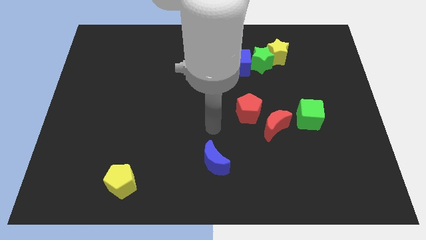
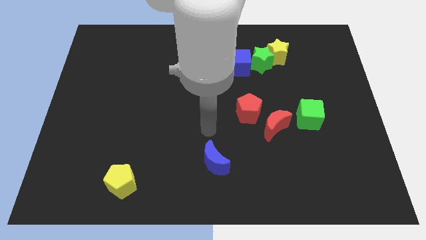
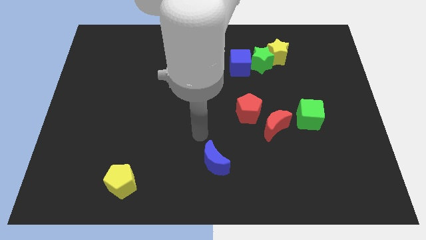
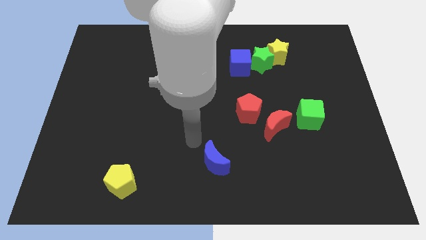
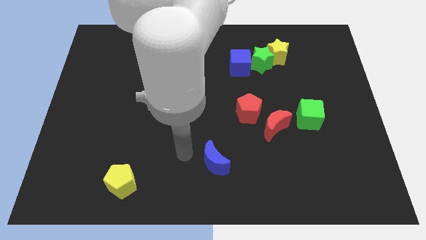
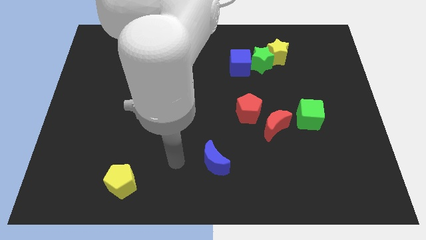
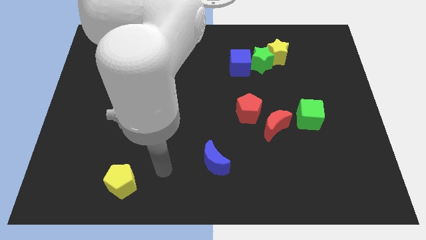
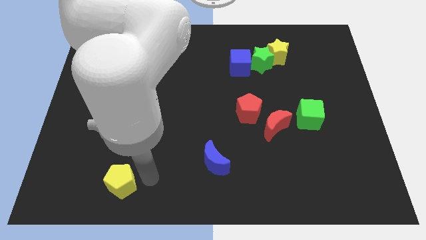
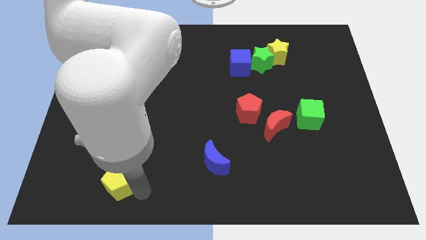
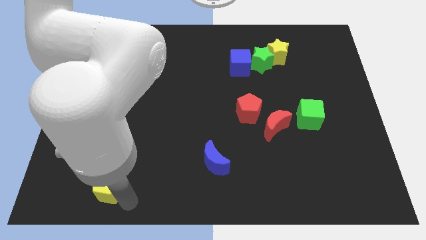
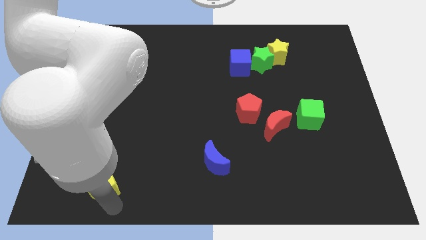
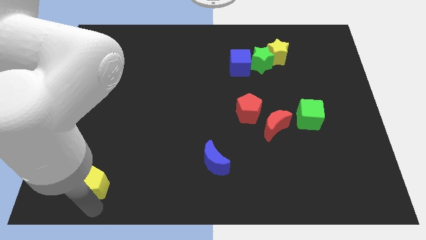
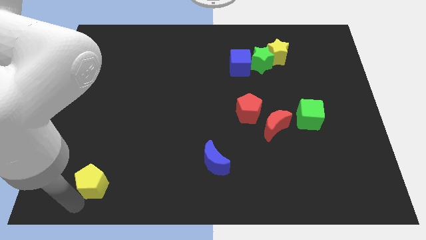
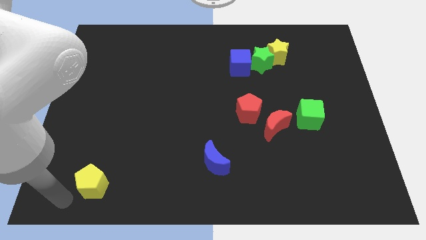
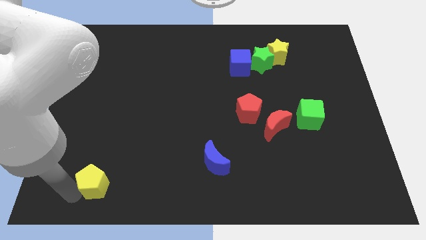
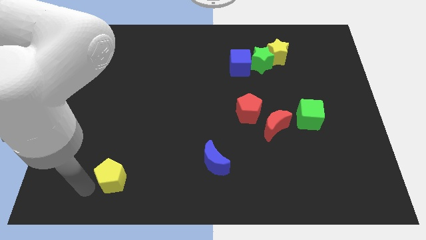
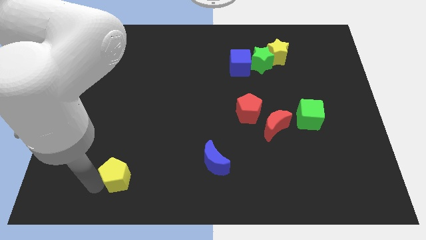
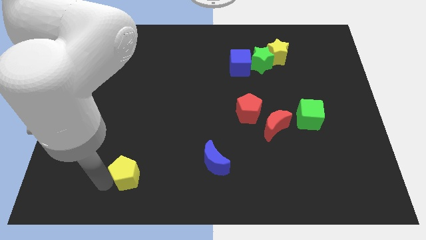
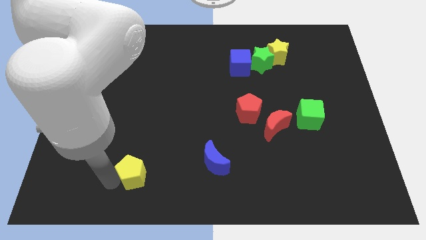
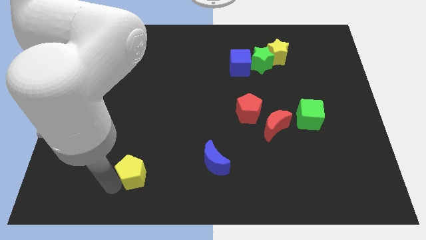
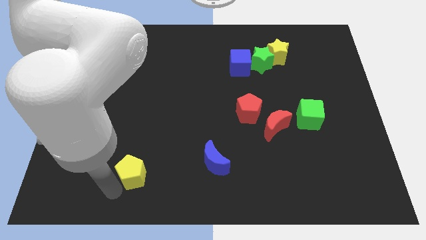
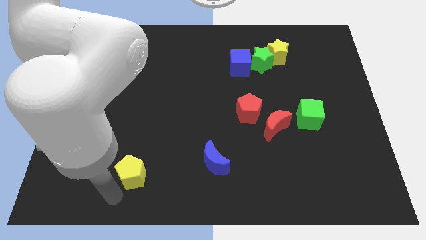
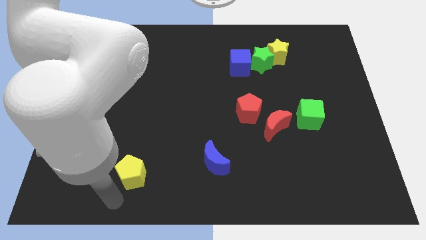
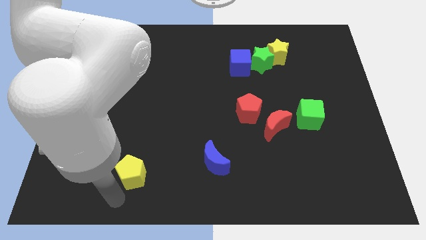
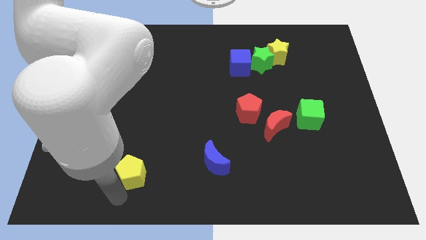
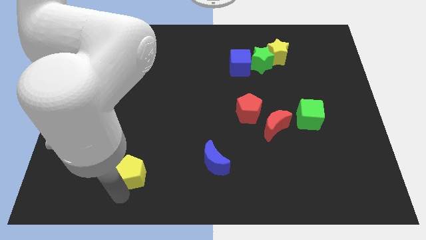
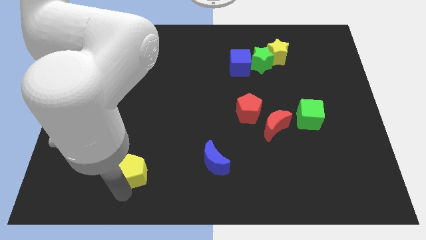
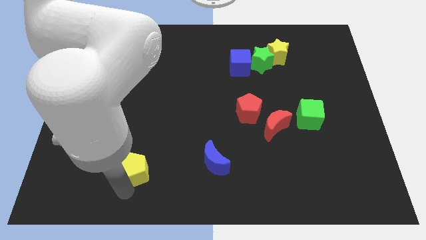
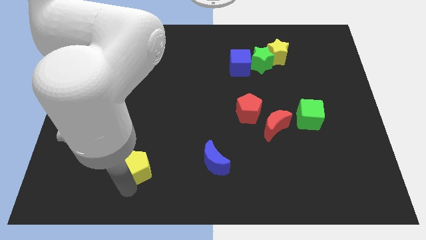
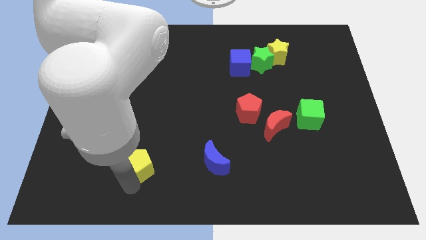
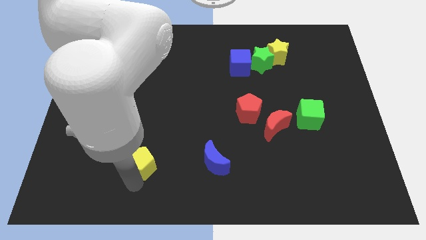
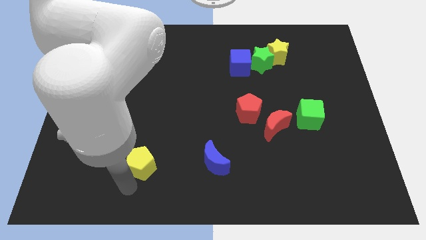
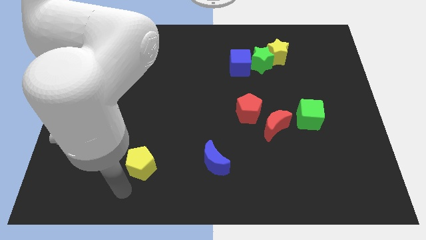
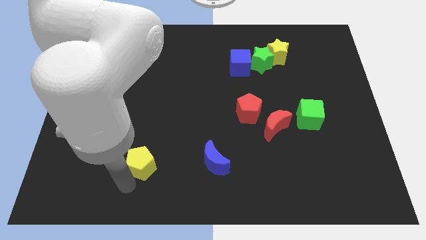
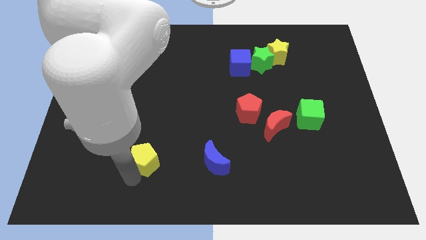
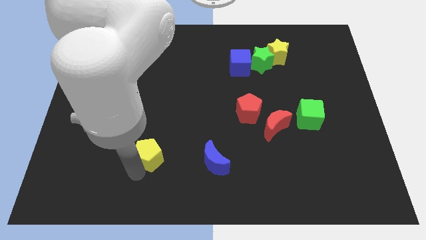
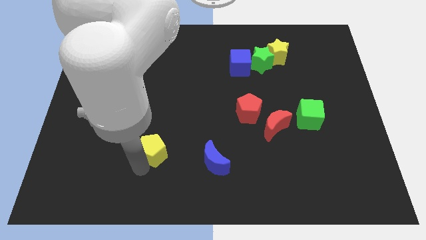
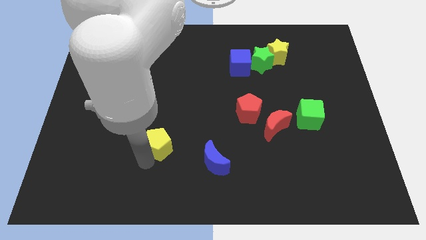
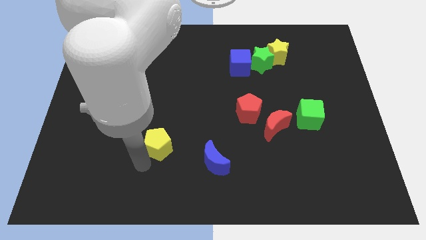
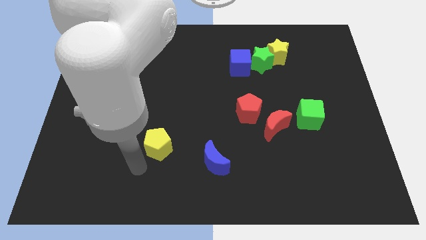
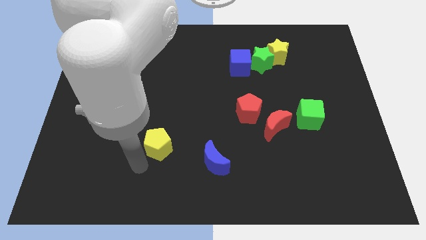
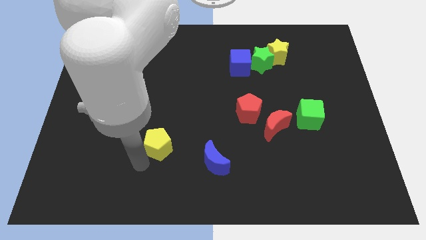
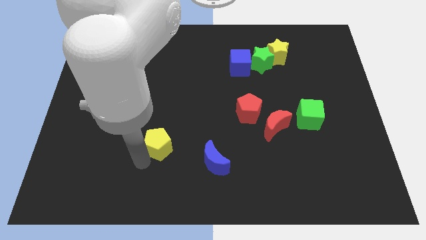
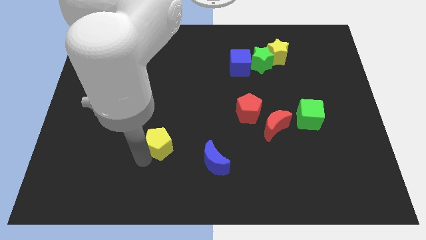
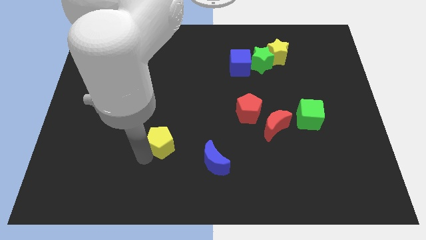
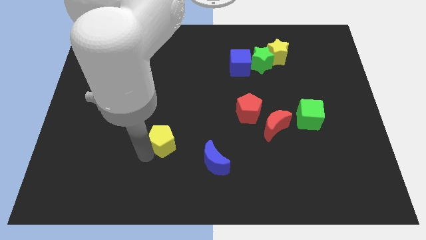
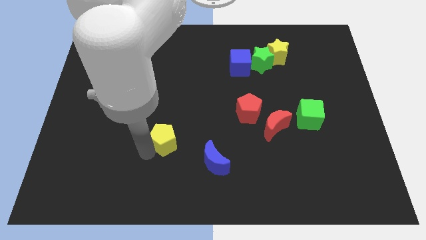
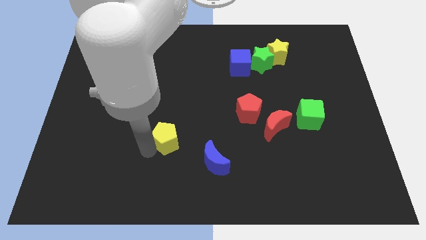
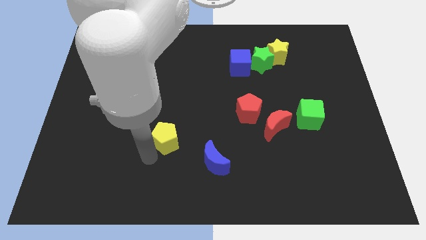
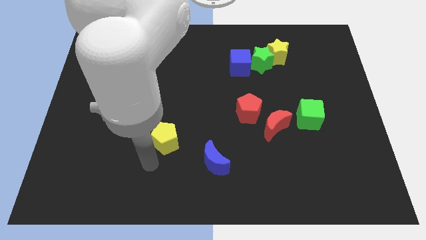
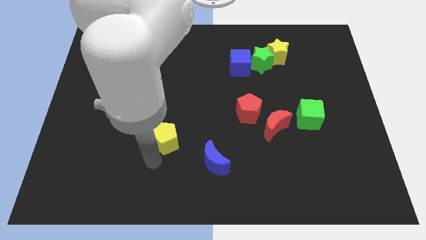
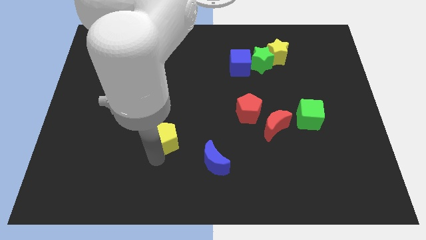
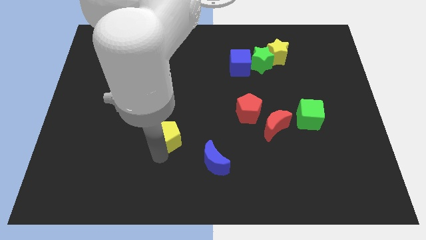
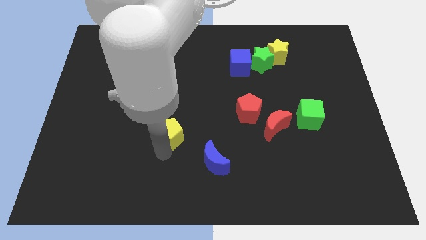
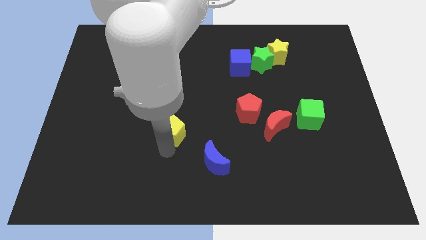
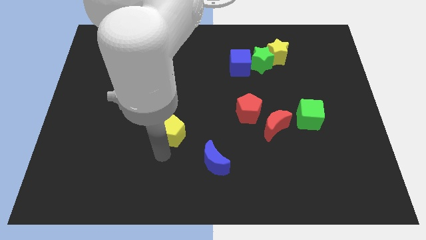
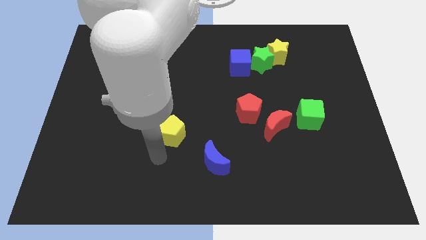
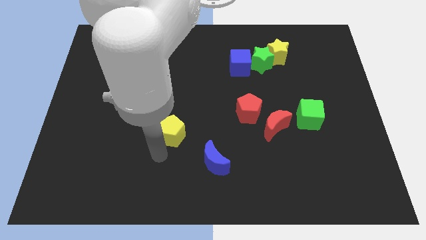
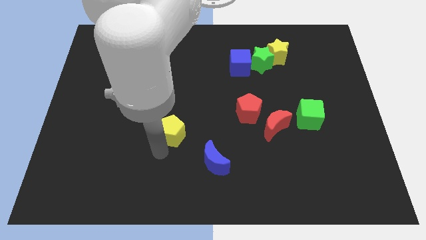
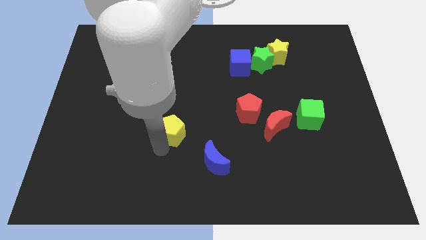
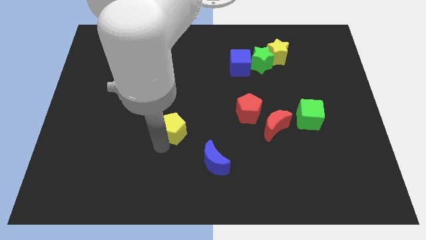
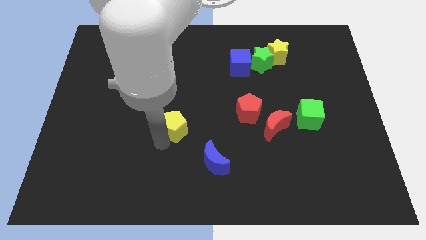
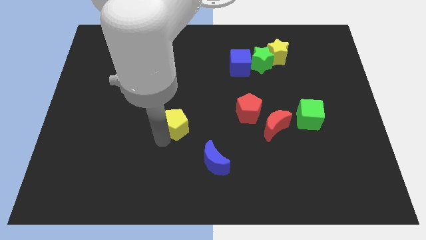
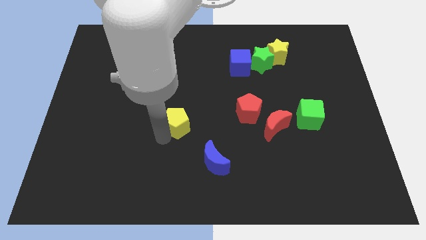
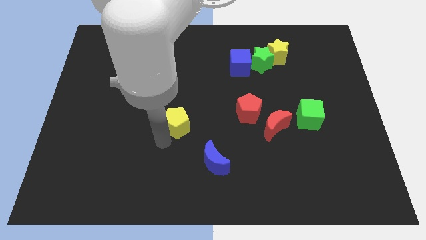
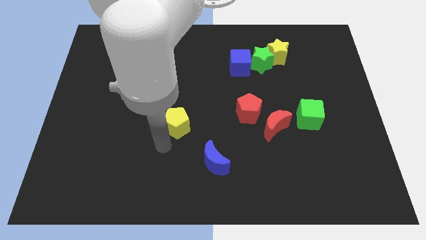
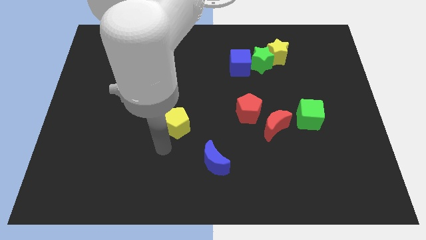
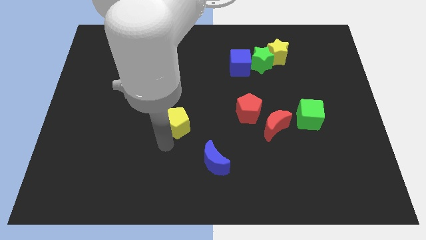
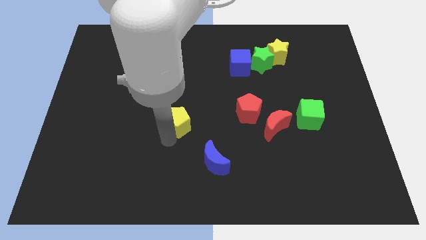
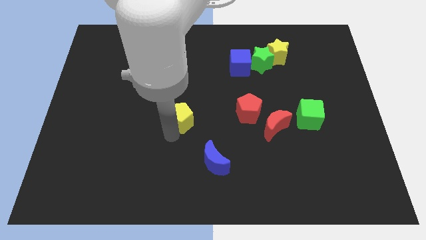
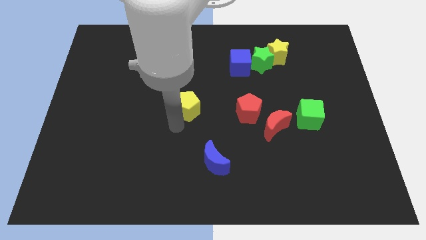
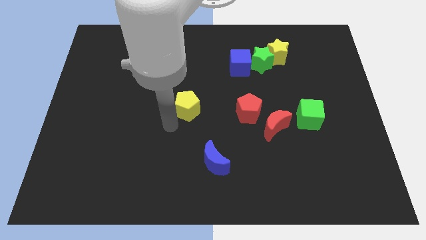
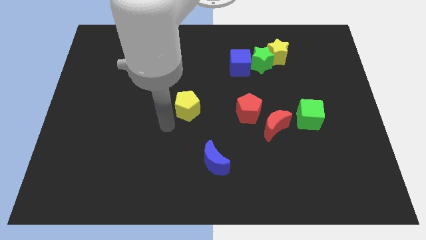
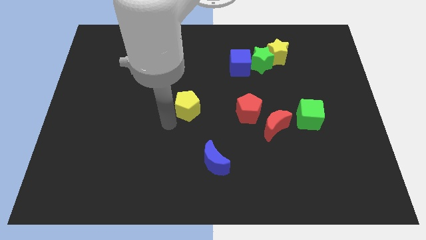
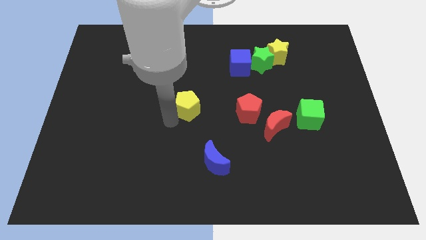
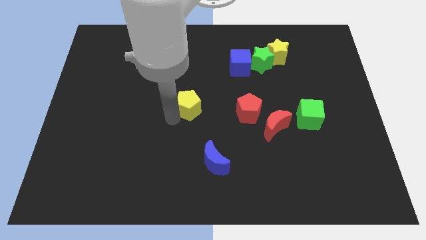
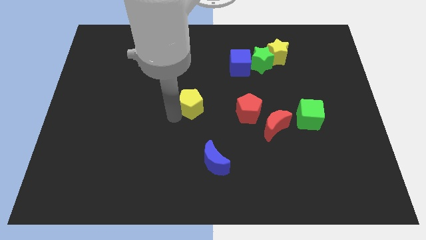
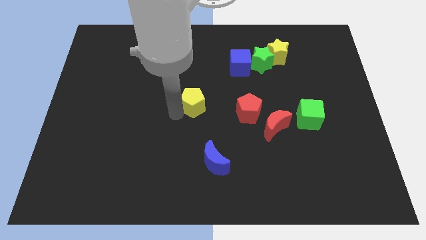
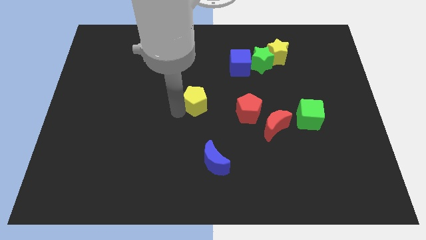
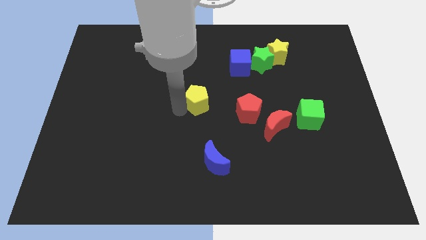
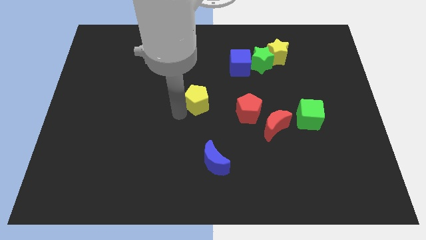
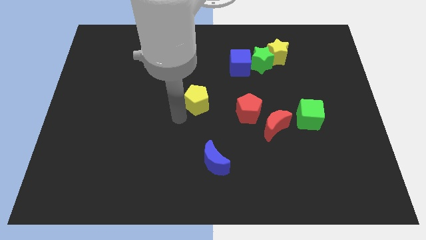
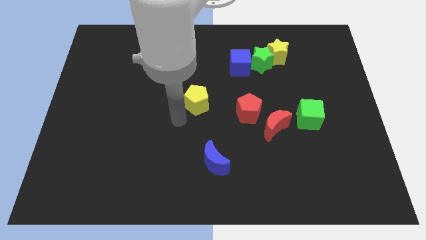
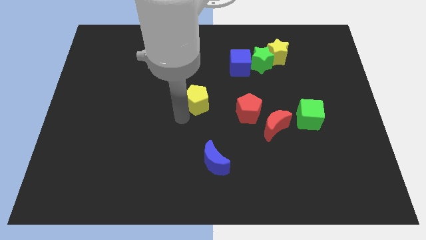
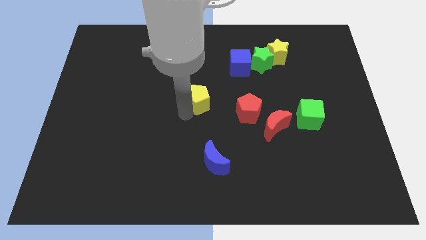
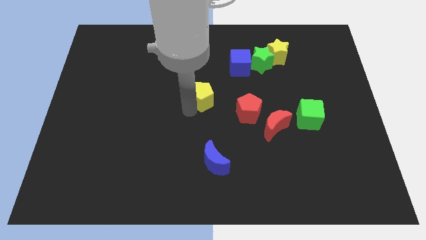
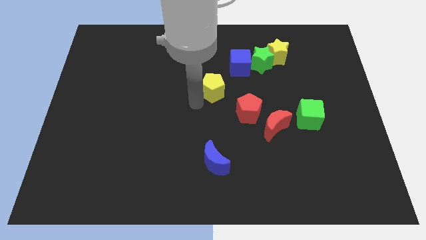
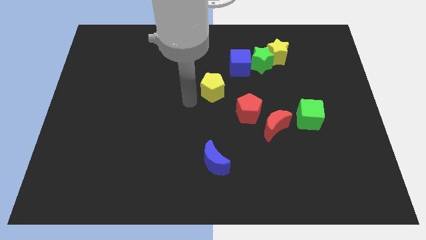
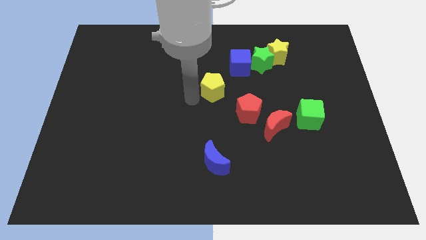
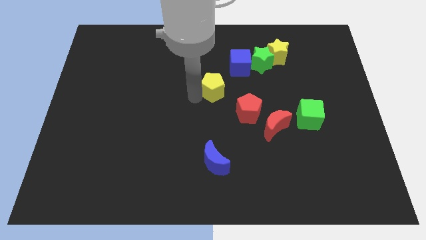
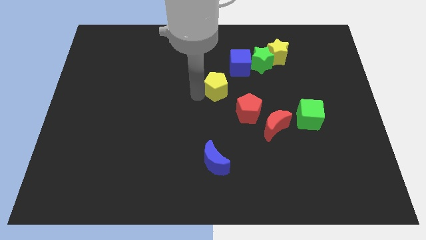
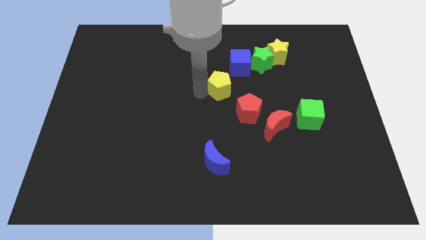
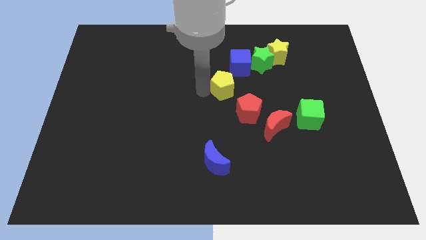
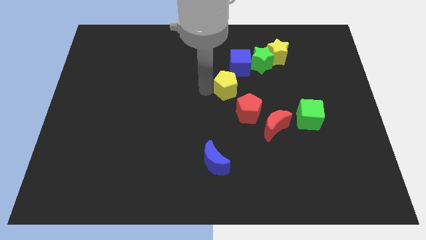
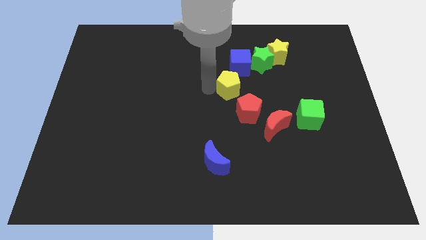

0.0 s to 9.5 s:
put the yellow pentagon diagonally down and to the left of the green star
